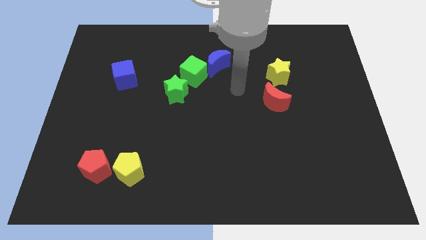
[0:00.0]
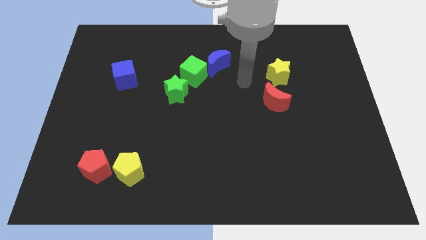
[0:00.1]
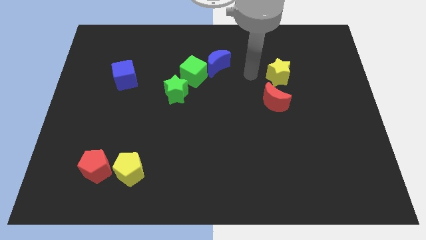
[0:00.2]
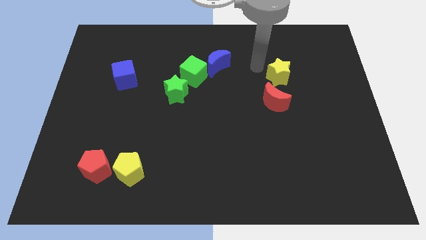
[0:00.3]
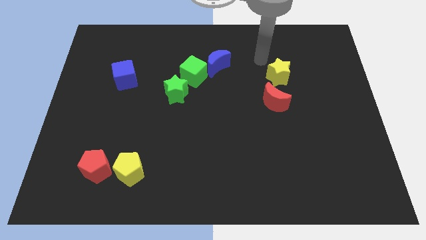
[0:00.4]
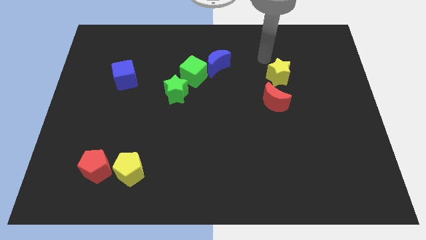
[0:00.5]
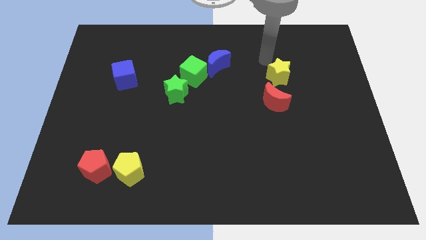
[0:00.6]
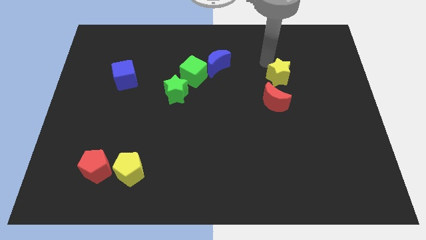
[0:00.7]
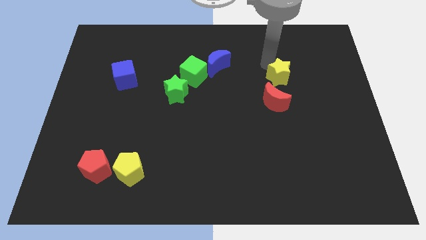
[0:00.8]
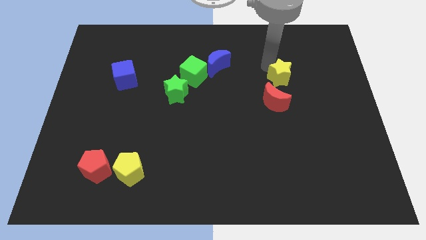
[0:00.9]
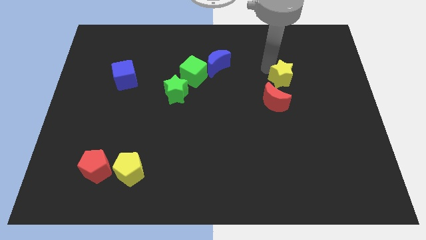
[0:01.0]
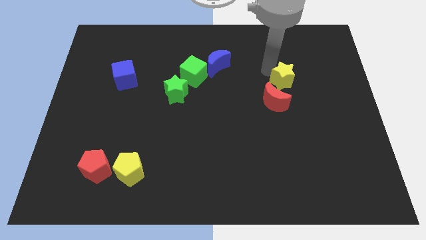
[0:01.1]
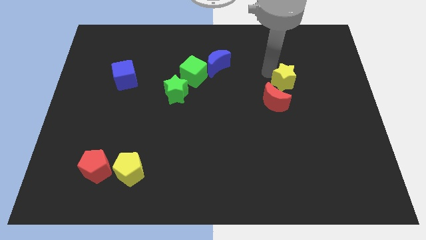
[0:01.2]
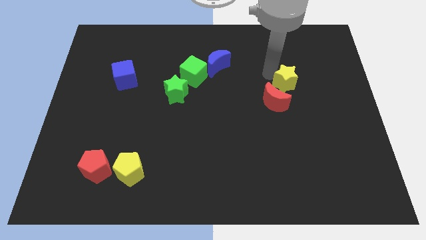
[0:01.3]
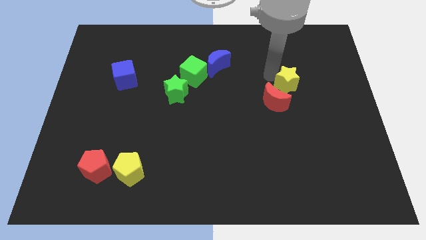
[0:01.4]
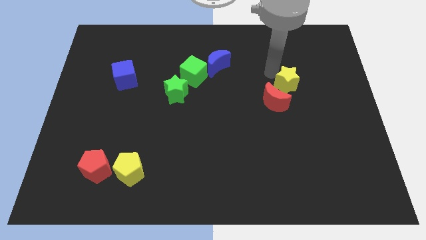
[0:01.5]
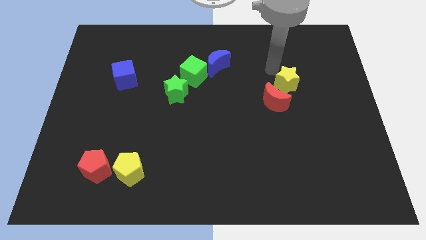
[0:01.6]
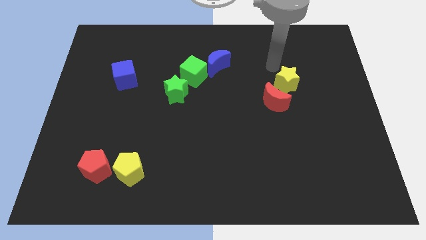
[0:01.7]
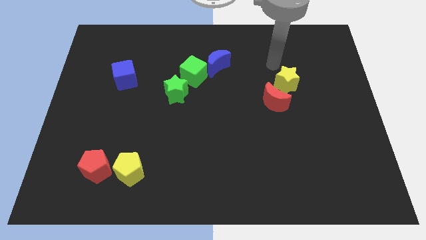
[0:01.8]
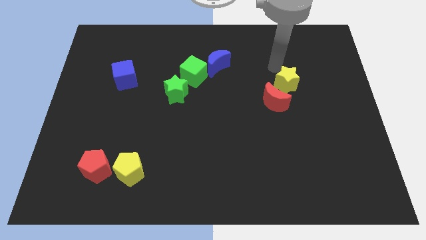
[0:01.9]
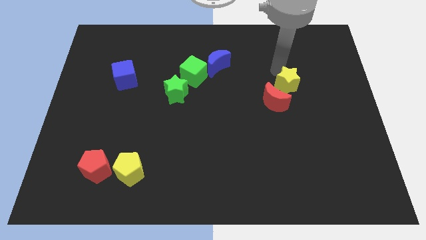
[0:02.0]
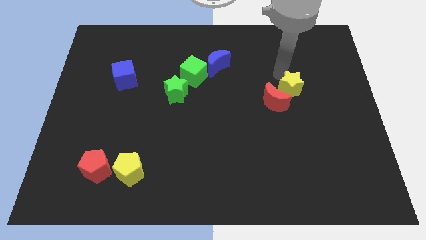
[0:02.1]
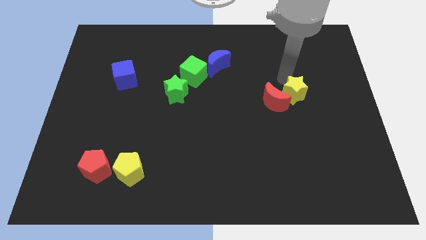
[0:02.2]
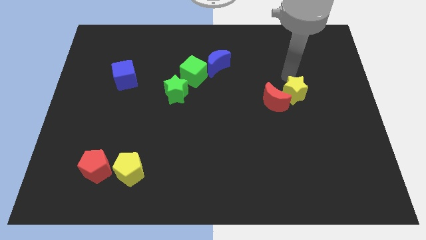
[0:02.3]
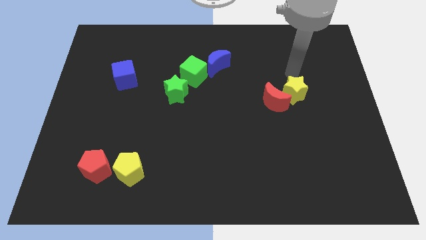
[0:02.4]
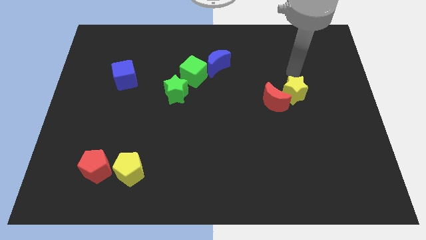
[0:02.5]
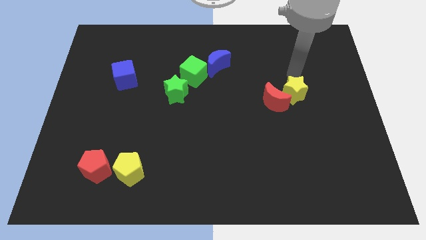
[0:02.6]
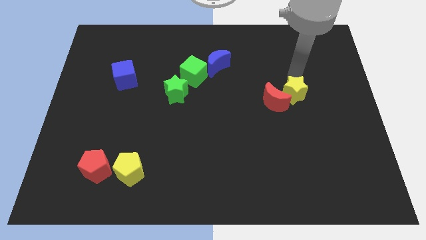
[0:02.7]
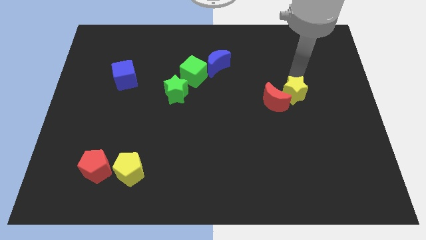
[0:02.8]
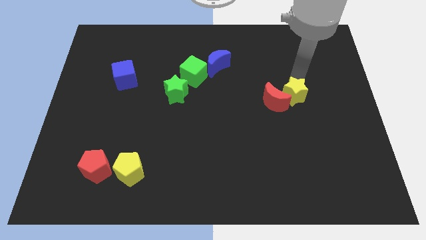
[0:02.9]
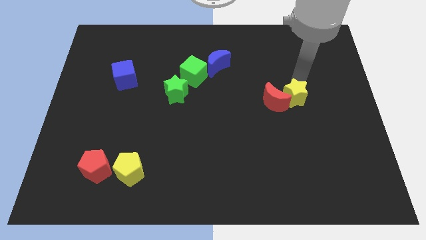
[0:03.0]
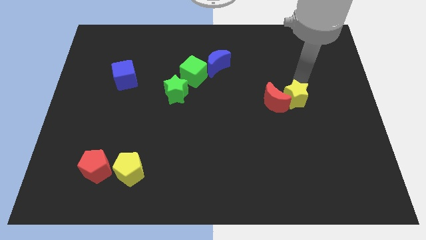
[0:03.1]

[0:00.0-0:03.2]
slightly move the yellow star down

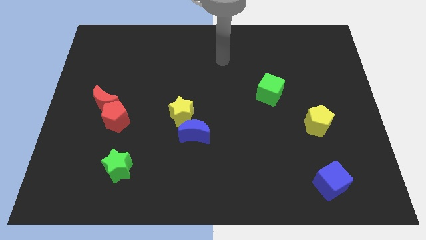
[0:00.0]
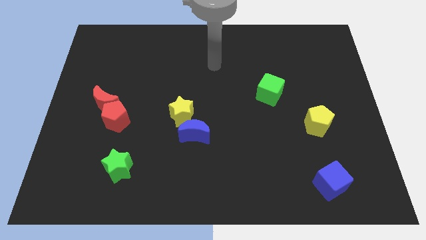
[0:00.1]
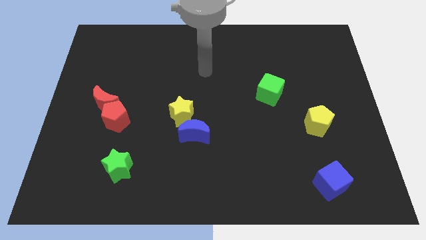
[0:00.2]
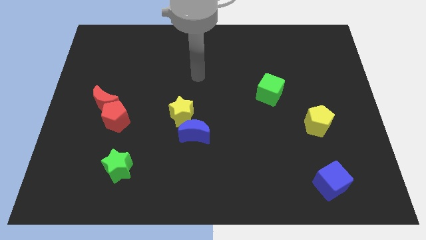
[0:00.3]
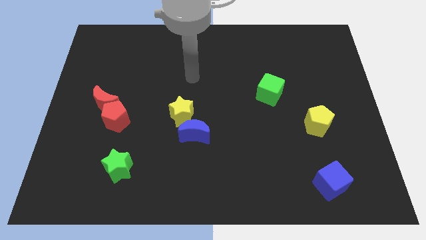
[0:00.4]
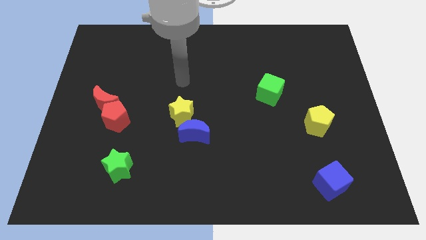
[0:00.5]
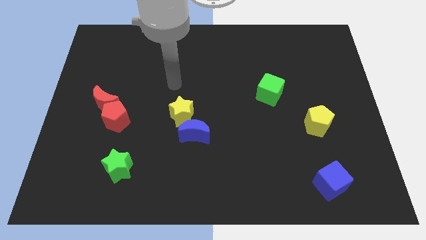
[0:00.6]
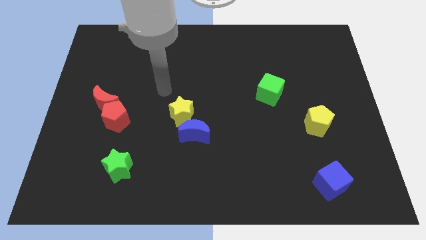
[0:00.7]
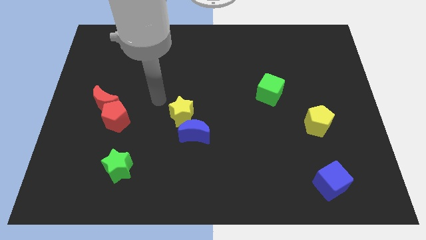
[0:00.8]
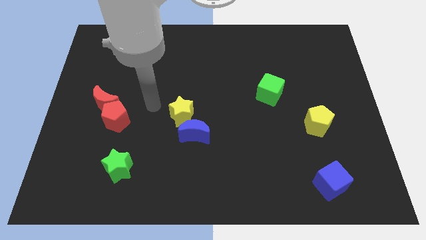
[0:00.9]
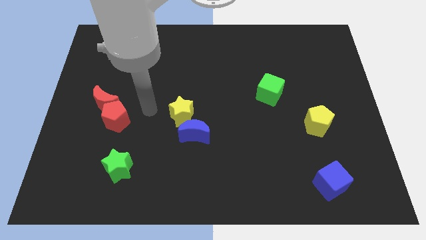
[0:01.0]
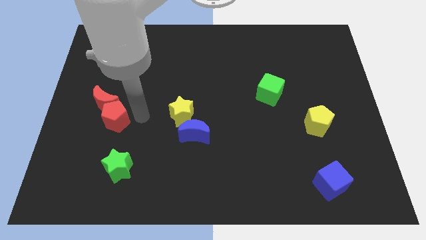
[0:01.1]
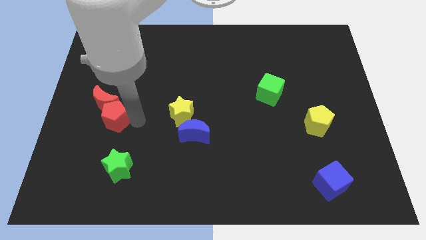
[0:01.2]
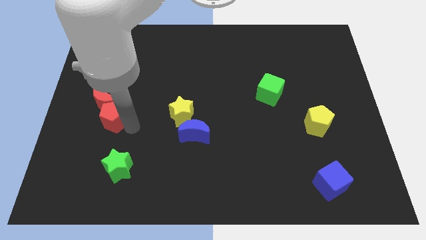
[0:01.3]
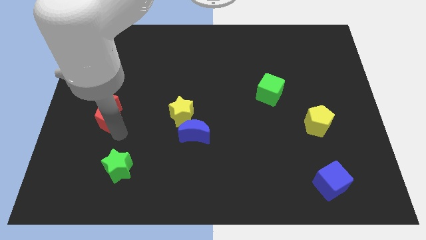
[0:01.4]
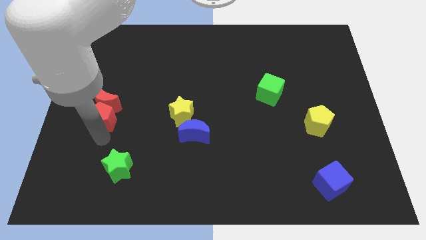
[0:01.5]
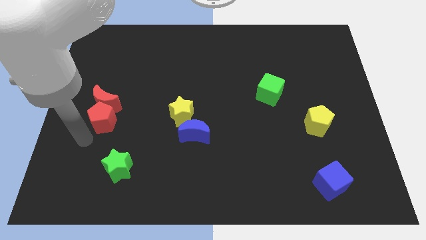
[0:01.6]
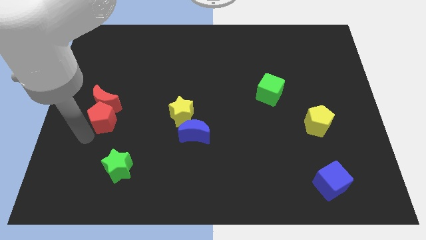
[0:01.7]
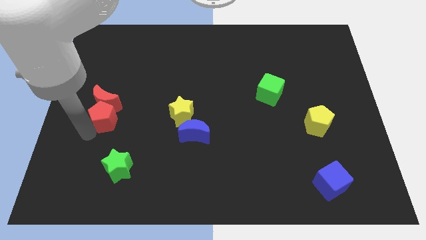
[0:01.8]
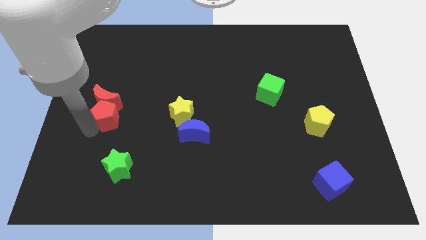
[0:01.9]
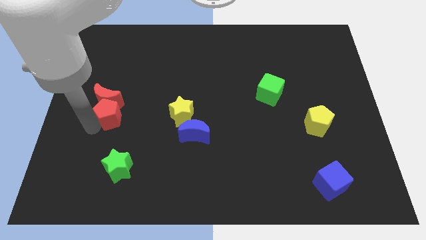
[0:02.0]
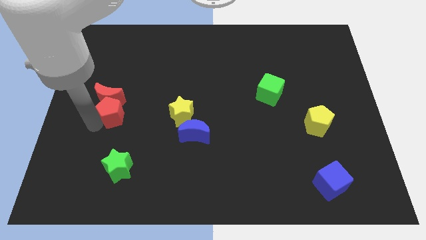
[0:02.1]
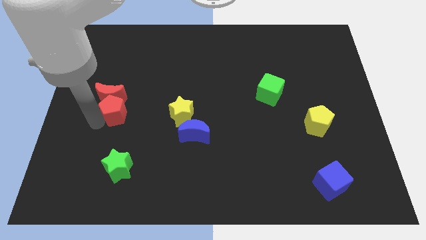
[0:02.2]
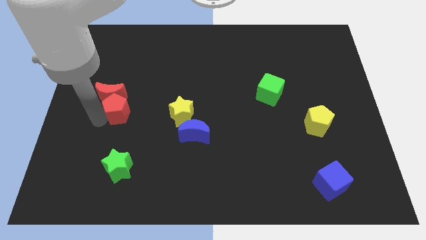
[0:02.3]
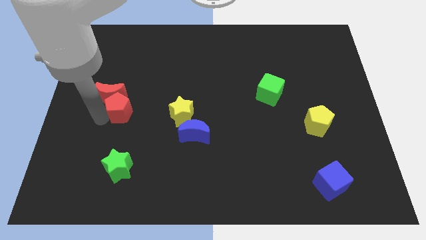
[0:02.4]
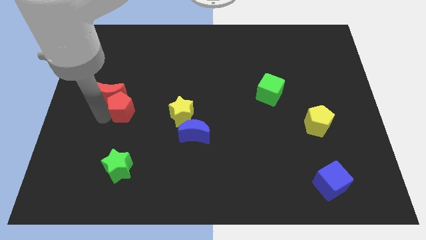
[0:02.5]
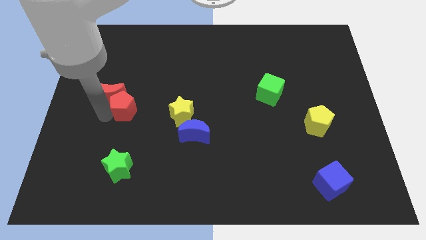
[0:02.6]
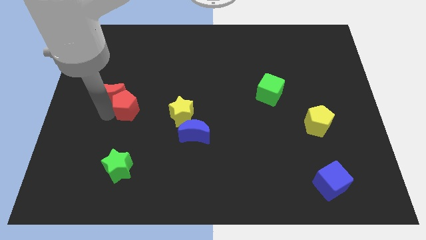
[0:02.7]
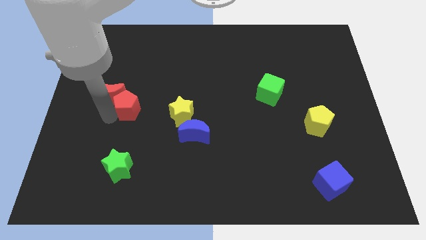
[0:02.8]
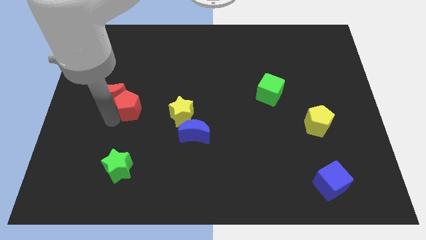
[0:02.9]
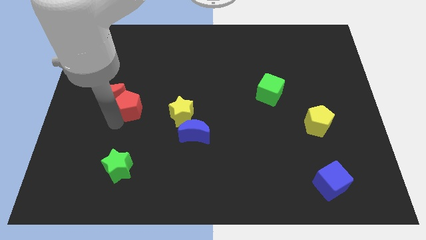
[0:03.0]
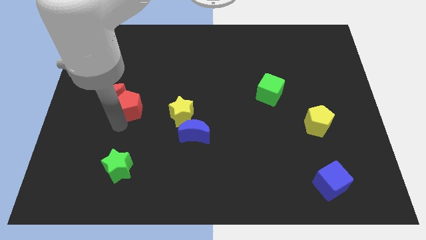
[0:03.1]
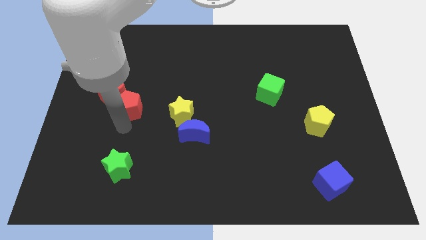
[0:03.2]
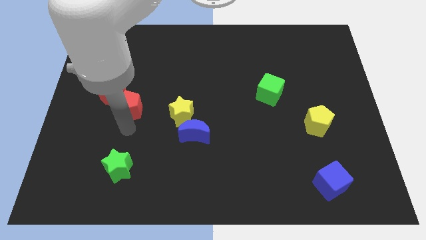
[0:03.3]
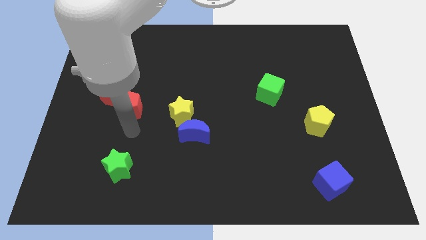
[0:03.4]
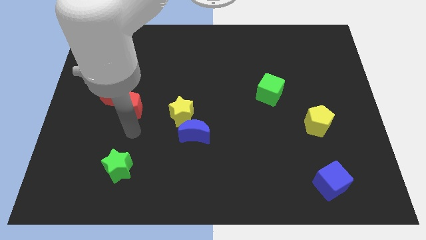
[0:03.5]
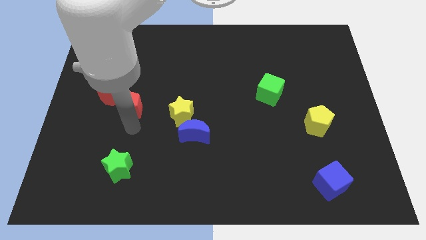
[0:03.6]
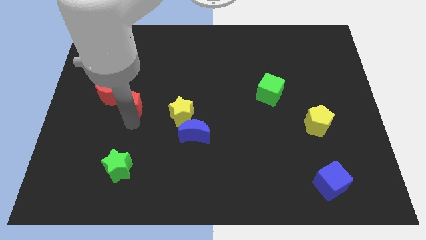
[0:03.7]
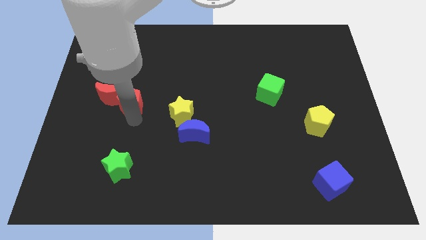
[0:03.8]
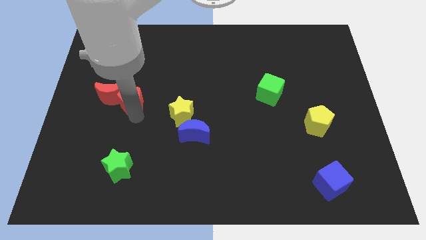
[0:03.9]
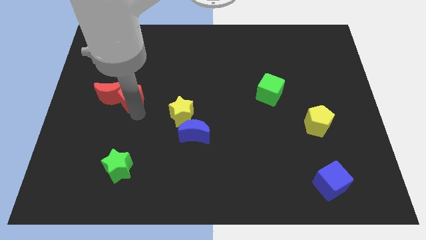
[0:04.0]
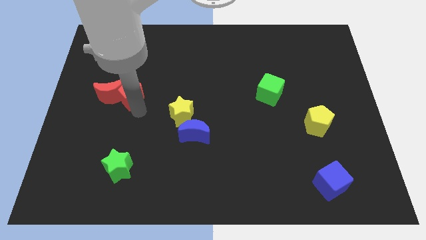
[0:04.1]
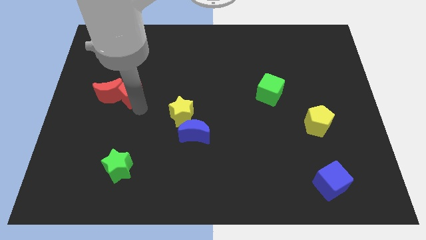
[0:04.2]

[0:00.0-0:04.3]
slightly move the red pentagon upwards

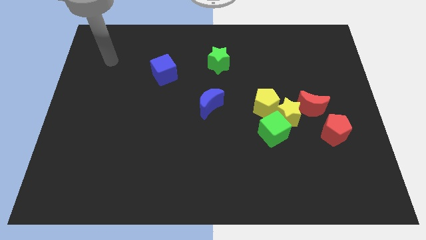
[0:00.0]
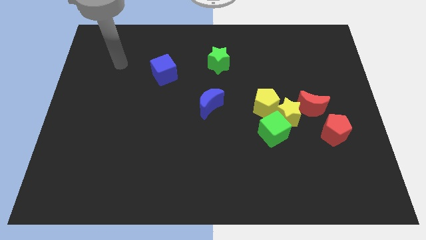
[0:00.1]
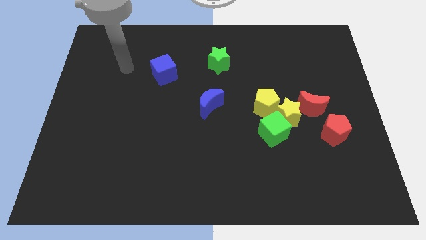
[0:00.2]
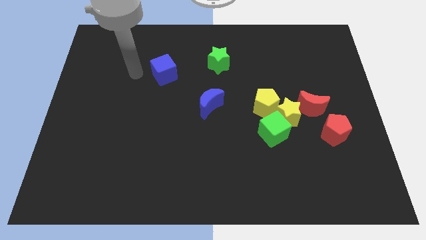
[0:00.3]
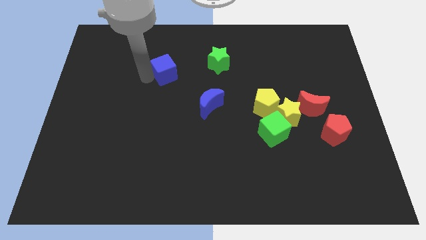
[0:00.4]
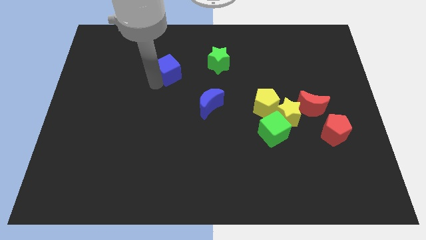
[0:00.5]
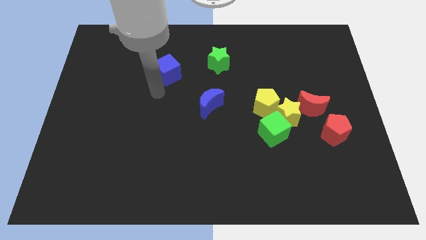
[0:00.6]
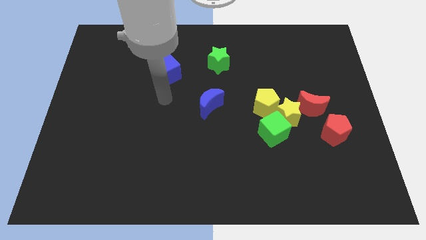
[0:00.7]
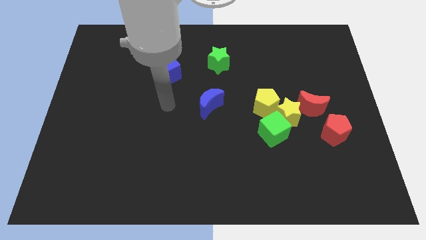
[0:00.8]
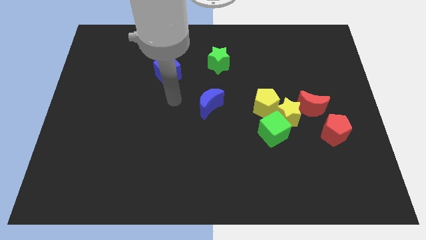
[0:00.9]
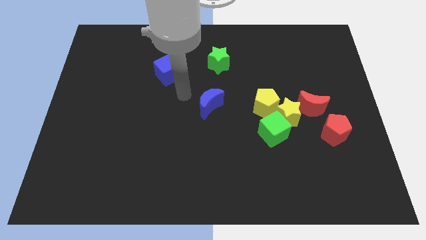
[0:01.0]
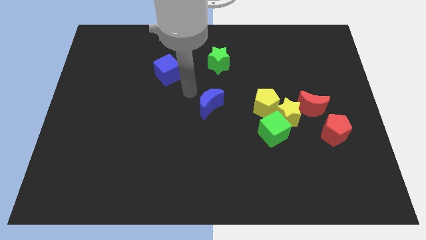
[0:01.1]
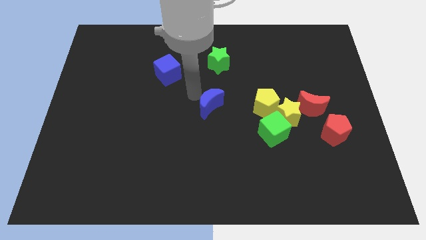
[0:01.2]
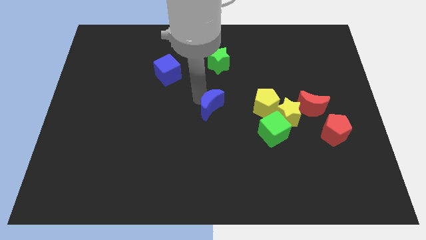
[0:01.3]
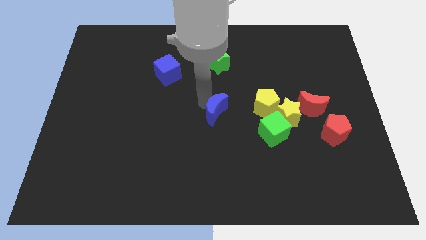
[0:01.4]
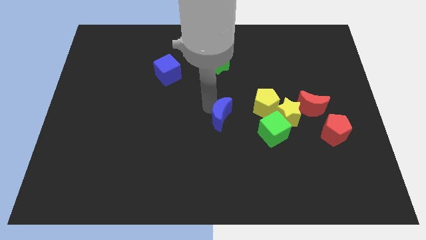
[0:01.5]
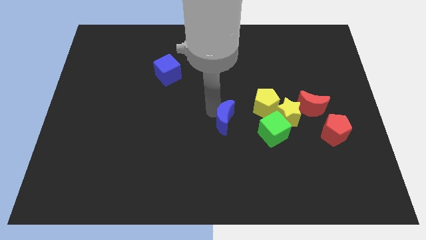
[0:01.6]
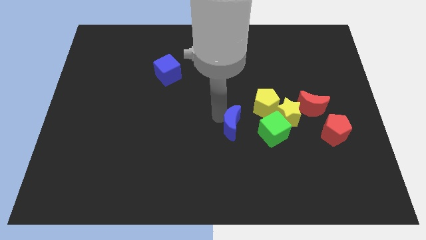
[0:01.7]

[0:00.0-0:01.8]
slide the blue moon a little bit diagonally downwards and to the right
